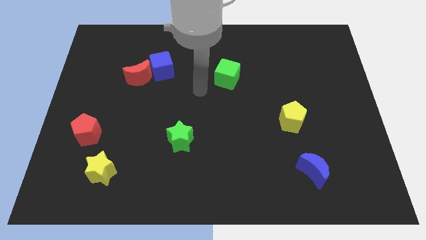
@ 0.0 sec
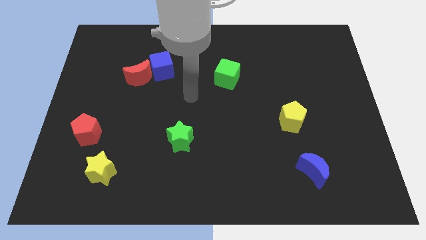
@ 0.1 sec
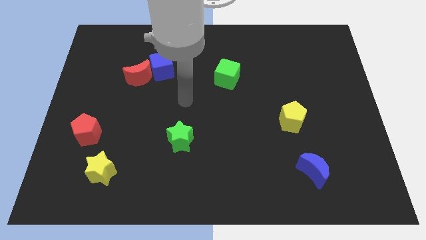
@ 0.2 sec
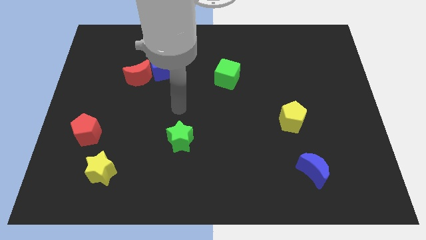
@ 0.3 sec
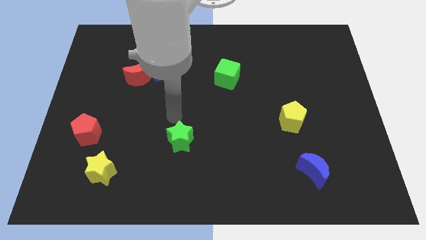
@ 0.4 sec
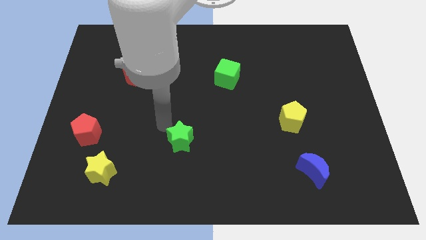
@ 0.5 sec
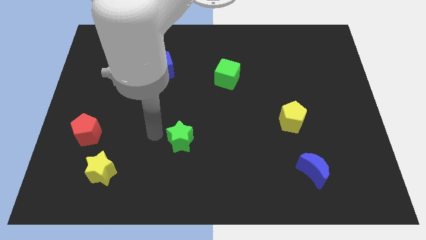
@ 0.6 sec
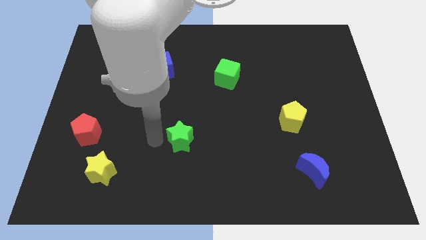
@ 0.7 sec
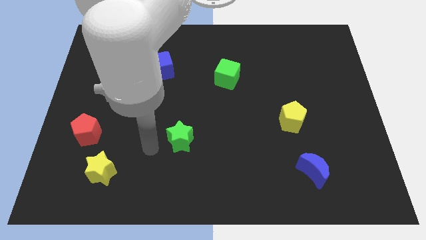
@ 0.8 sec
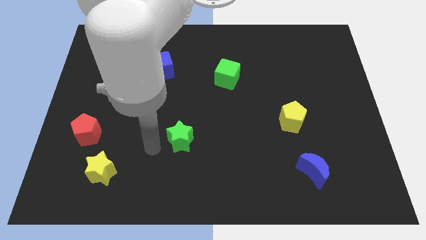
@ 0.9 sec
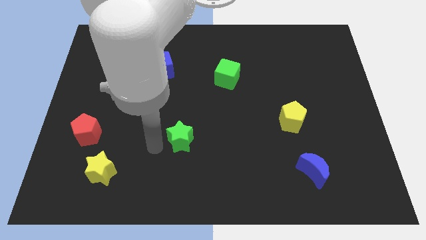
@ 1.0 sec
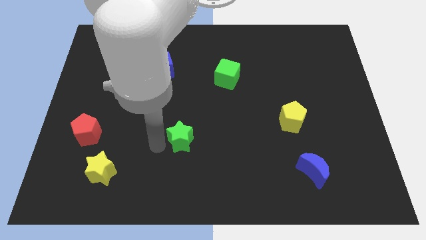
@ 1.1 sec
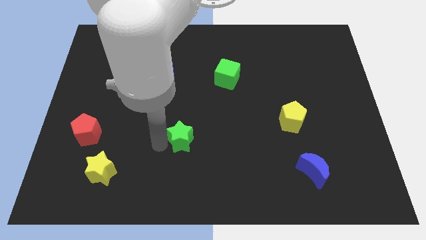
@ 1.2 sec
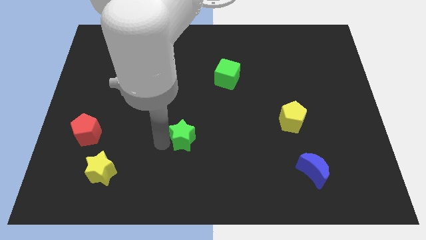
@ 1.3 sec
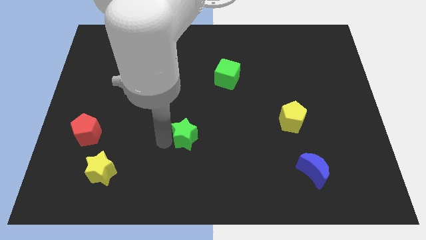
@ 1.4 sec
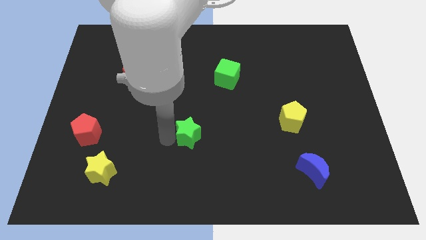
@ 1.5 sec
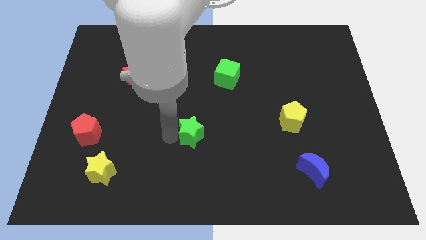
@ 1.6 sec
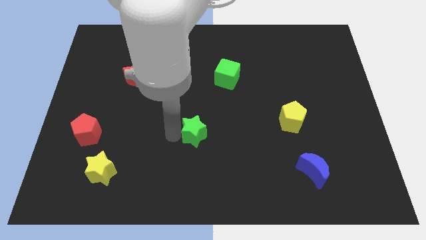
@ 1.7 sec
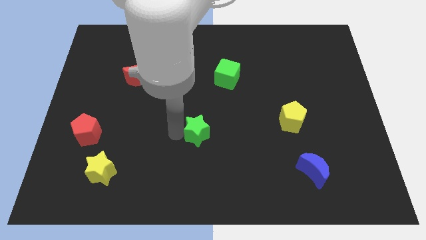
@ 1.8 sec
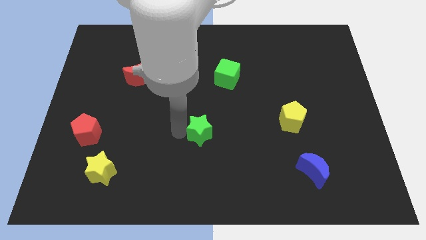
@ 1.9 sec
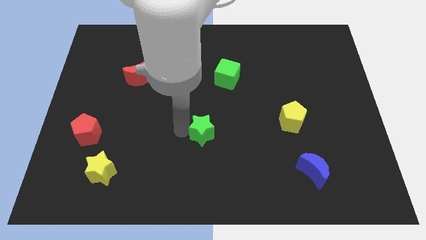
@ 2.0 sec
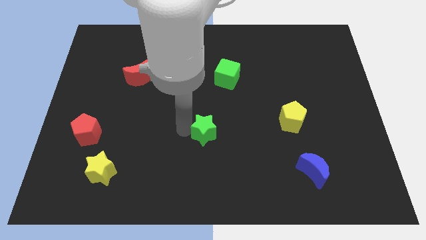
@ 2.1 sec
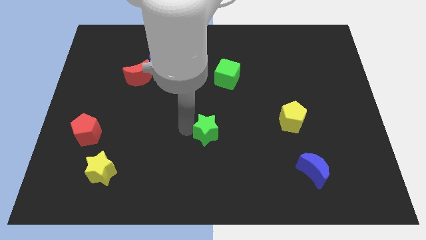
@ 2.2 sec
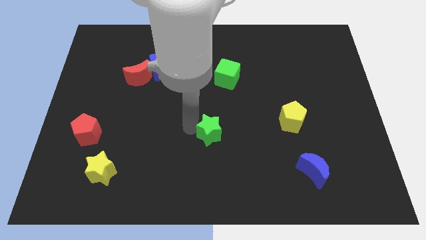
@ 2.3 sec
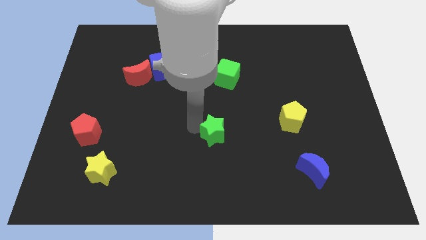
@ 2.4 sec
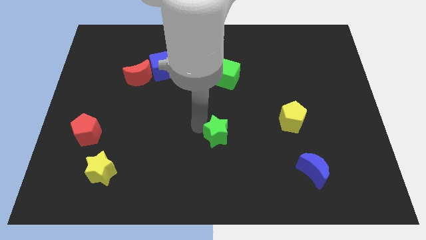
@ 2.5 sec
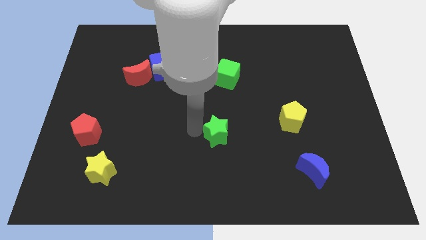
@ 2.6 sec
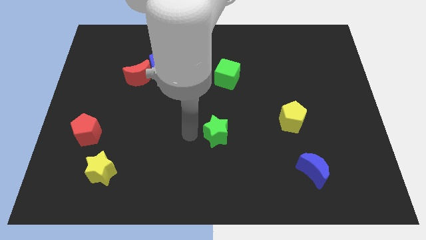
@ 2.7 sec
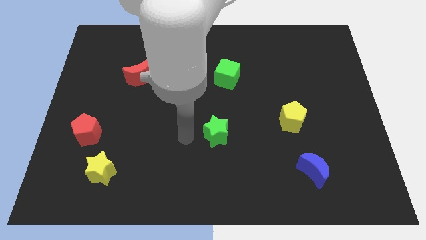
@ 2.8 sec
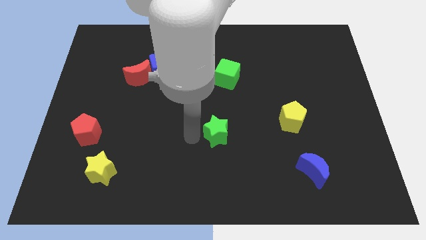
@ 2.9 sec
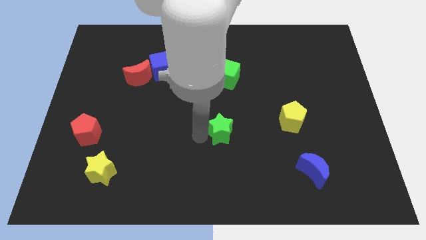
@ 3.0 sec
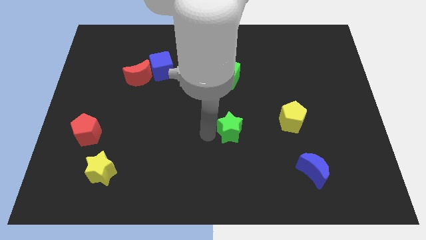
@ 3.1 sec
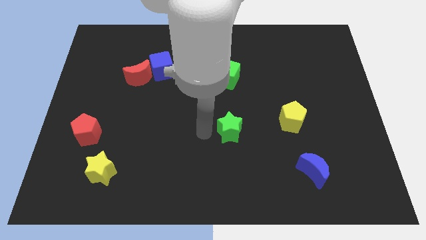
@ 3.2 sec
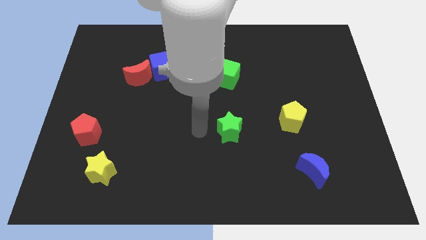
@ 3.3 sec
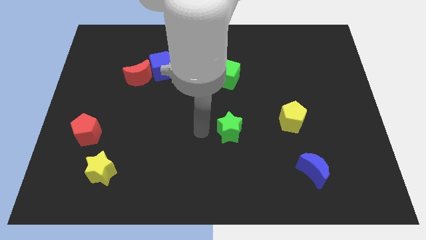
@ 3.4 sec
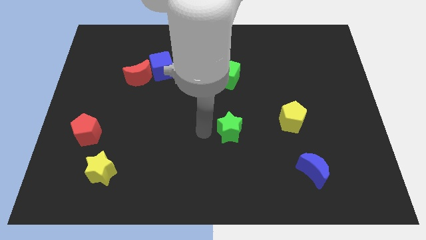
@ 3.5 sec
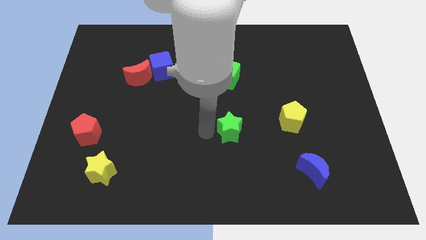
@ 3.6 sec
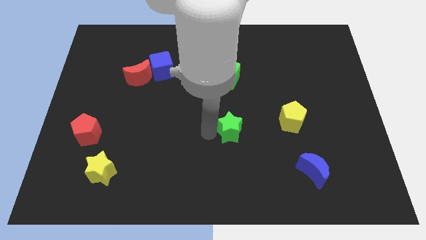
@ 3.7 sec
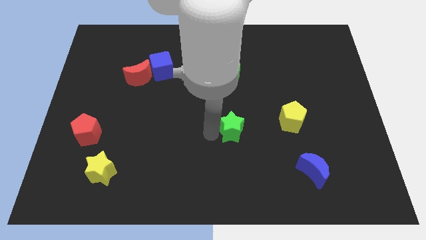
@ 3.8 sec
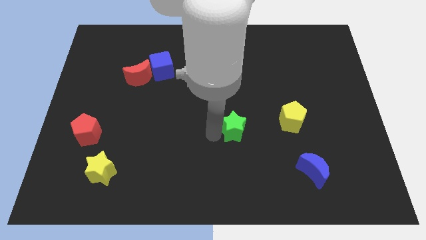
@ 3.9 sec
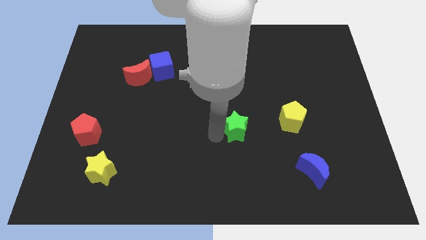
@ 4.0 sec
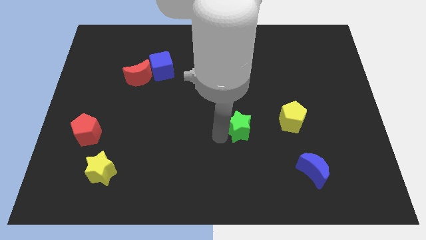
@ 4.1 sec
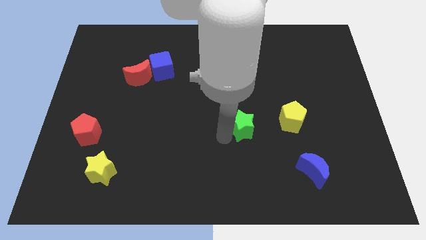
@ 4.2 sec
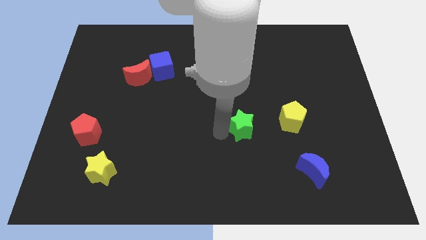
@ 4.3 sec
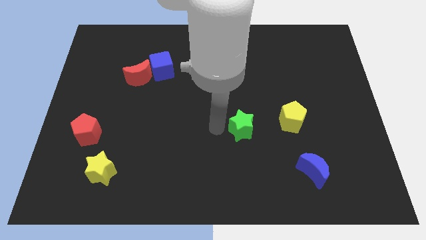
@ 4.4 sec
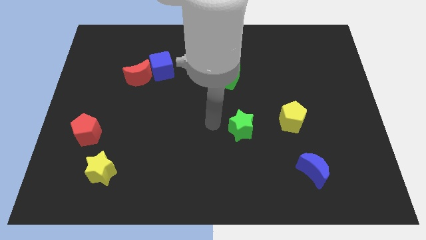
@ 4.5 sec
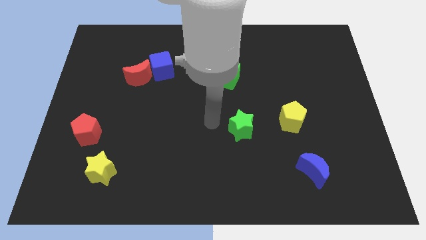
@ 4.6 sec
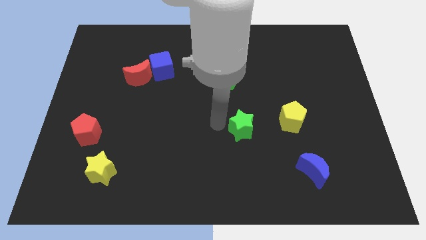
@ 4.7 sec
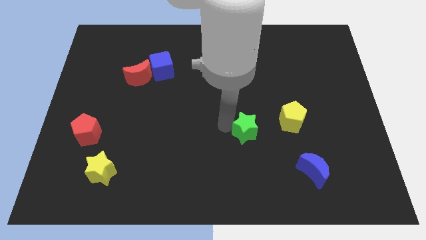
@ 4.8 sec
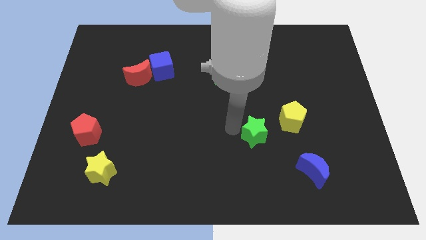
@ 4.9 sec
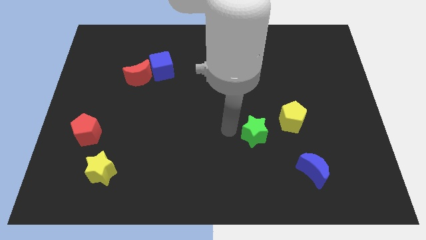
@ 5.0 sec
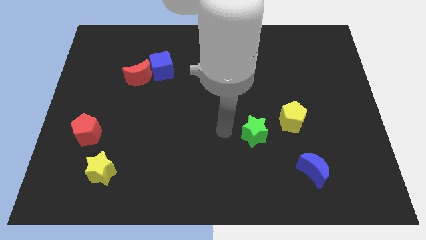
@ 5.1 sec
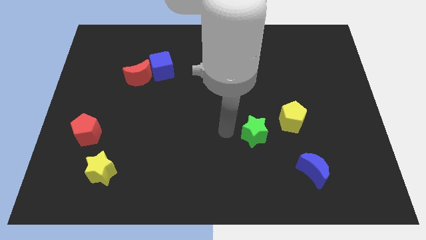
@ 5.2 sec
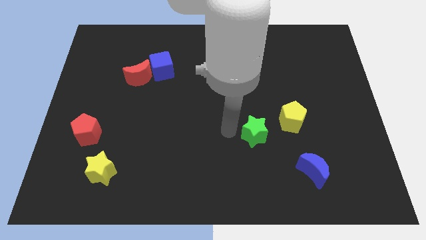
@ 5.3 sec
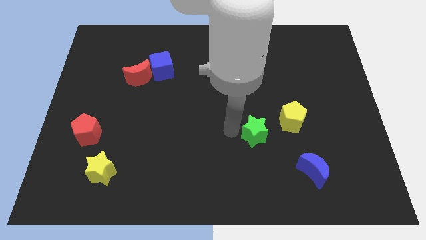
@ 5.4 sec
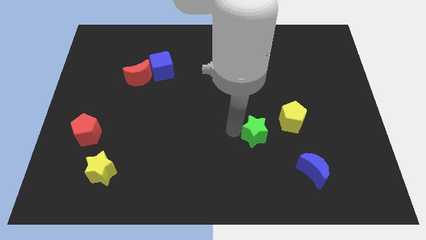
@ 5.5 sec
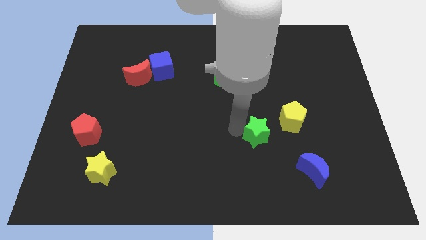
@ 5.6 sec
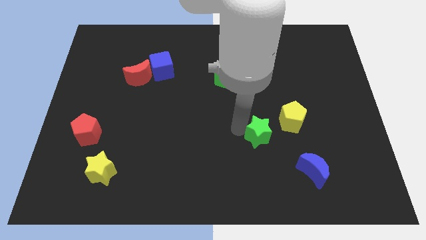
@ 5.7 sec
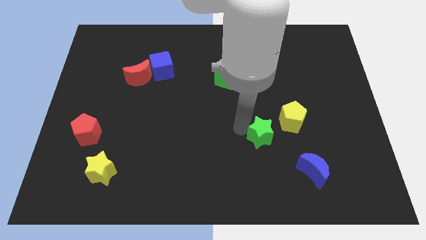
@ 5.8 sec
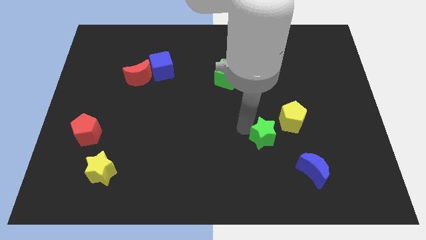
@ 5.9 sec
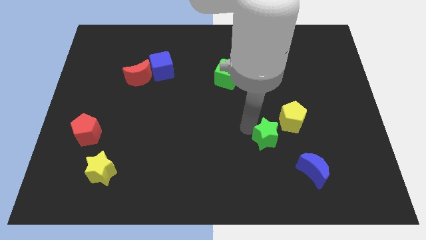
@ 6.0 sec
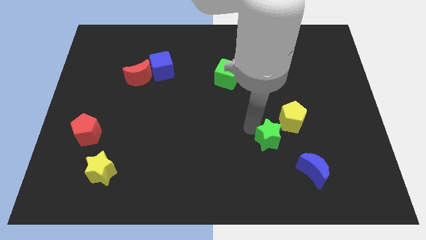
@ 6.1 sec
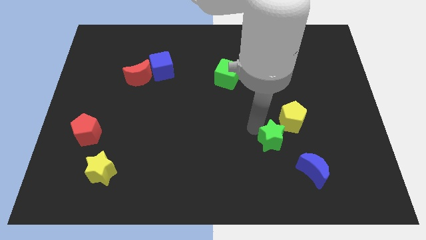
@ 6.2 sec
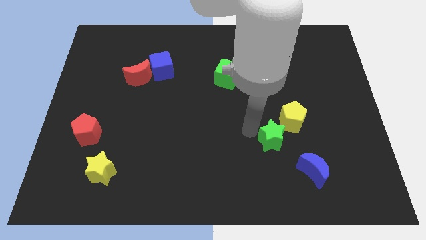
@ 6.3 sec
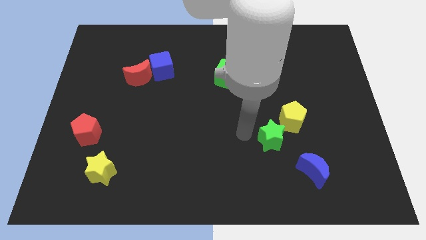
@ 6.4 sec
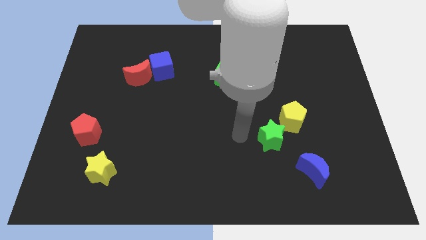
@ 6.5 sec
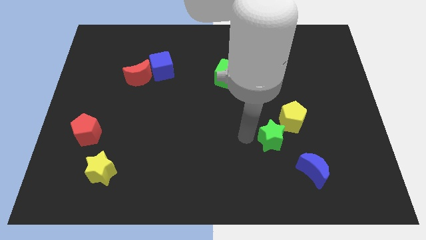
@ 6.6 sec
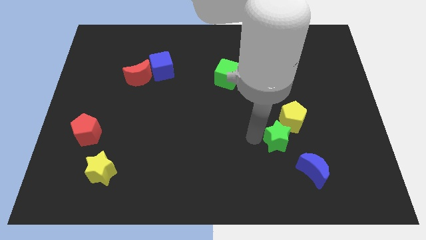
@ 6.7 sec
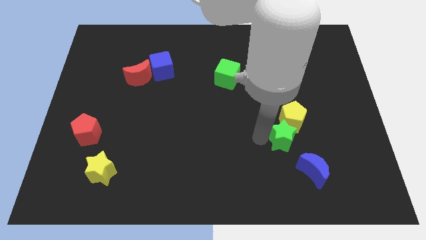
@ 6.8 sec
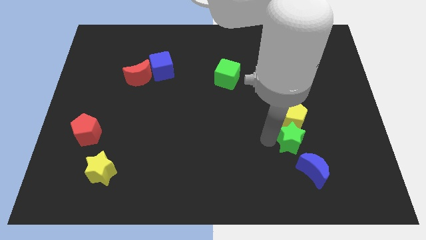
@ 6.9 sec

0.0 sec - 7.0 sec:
slide the green star to the top of the blue moon
